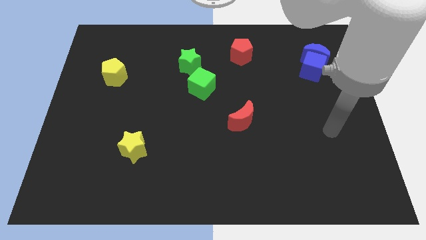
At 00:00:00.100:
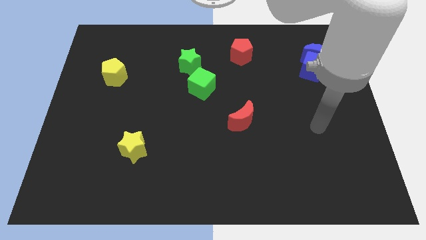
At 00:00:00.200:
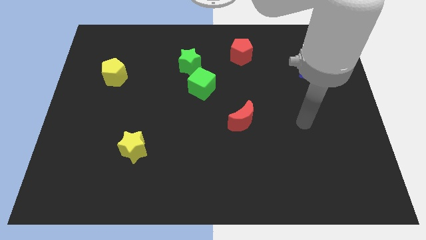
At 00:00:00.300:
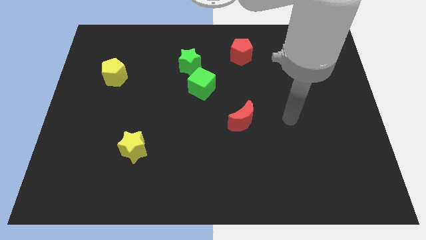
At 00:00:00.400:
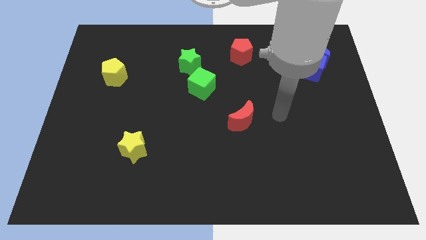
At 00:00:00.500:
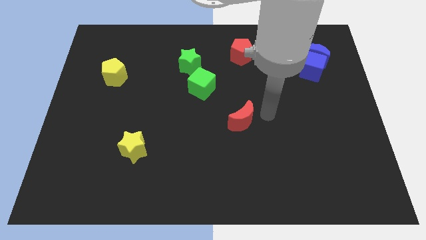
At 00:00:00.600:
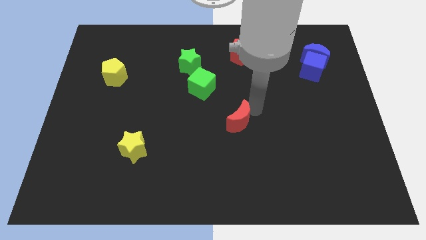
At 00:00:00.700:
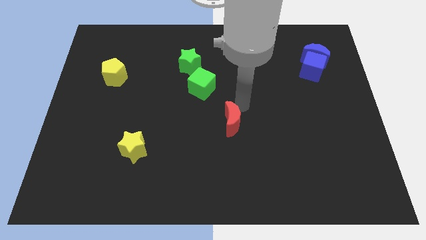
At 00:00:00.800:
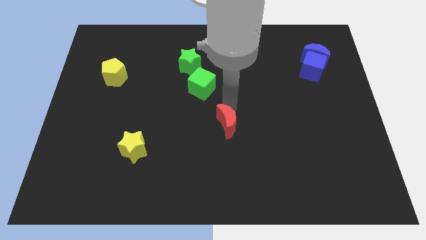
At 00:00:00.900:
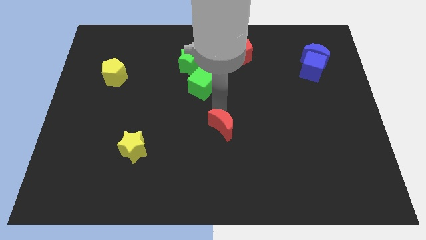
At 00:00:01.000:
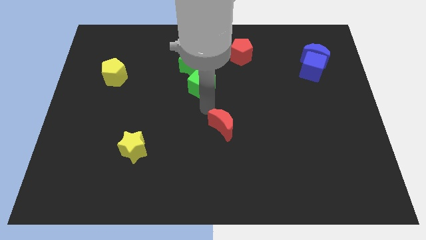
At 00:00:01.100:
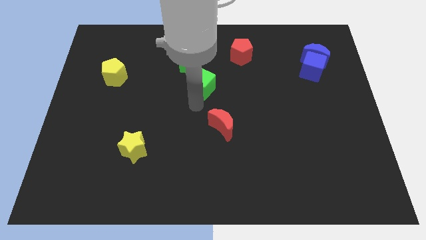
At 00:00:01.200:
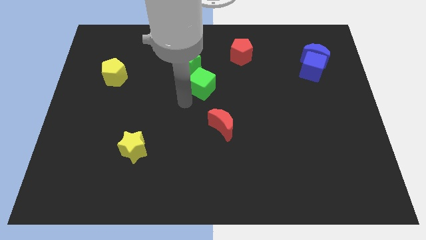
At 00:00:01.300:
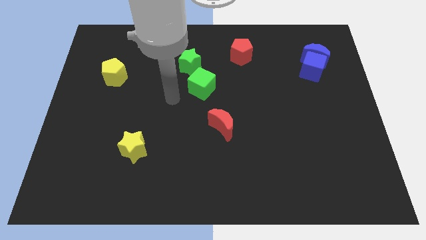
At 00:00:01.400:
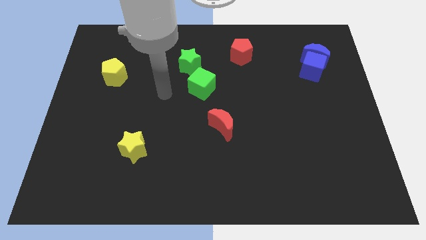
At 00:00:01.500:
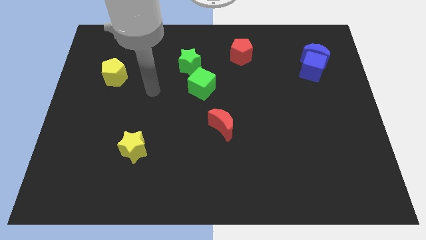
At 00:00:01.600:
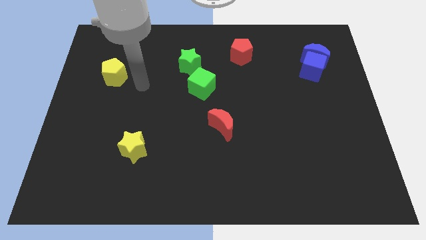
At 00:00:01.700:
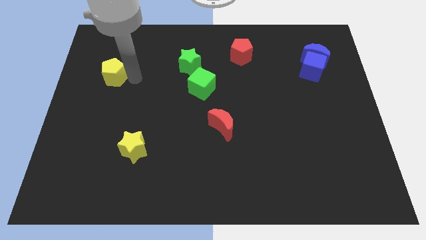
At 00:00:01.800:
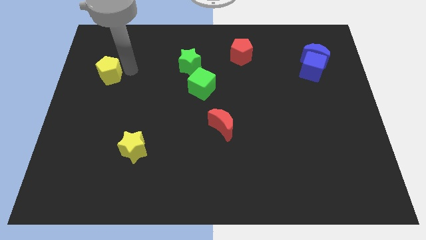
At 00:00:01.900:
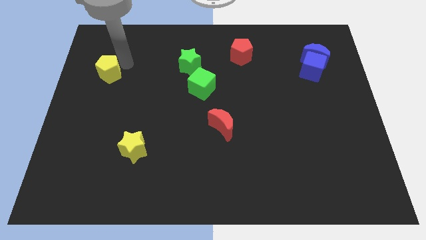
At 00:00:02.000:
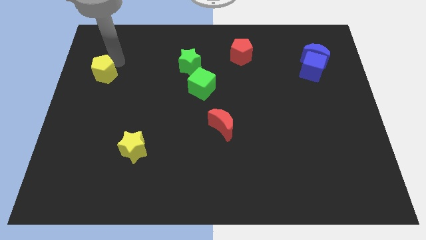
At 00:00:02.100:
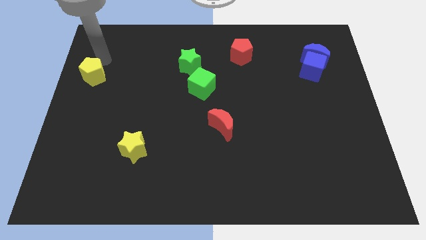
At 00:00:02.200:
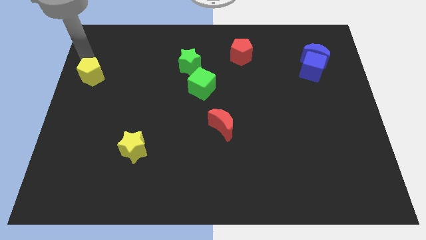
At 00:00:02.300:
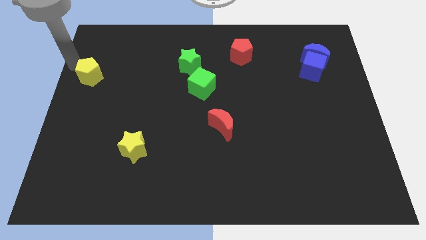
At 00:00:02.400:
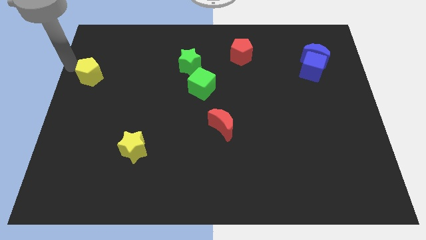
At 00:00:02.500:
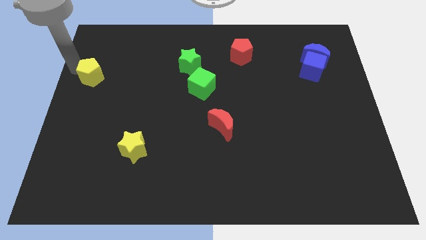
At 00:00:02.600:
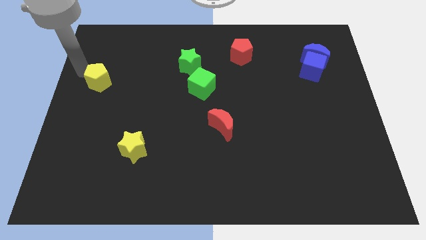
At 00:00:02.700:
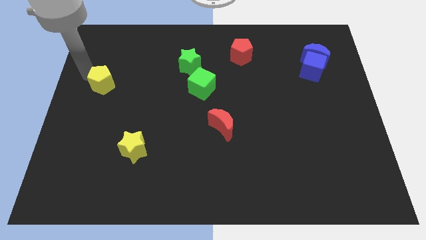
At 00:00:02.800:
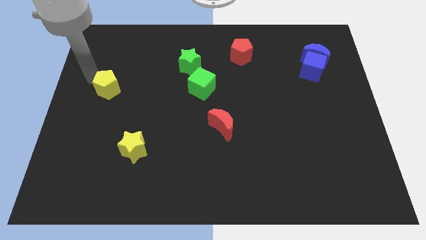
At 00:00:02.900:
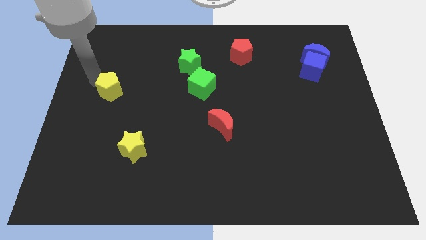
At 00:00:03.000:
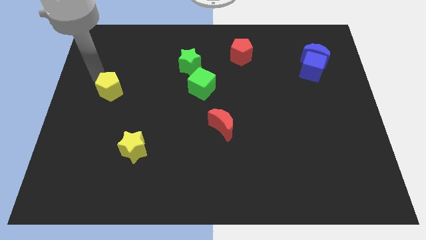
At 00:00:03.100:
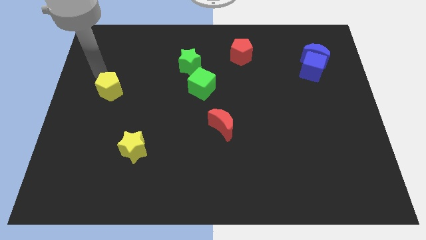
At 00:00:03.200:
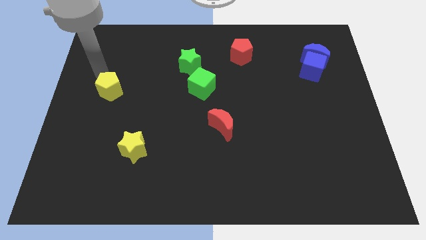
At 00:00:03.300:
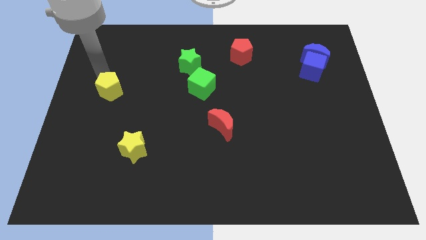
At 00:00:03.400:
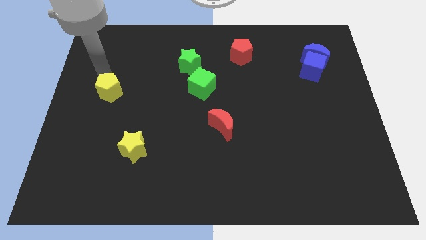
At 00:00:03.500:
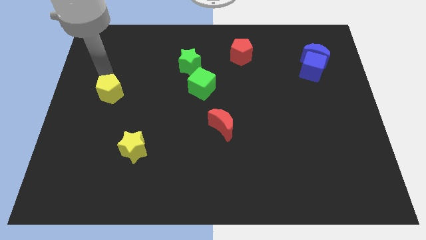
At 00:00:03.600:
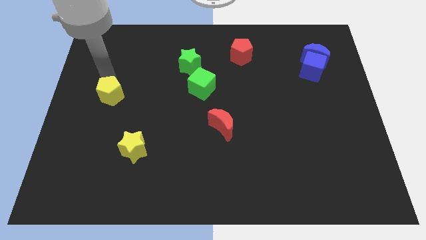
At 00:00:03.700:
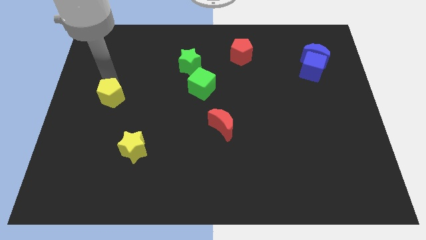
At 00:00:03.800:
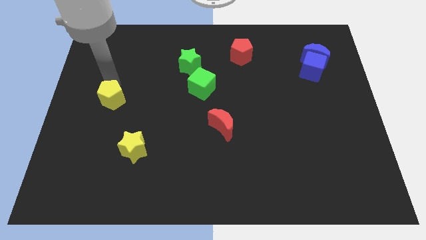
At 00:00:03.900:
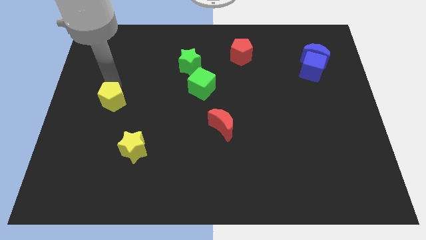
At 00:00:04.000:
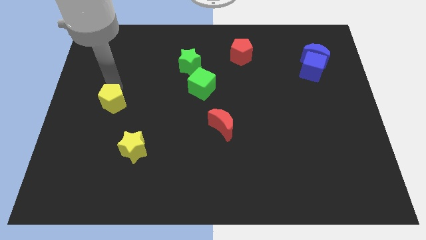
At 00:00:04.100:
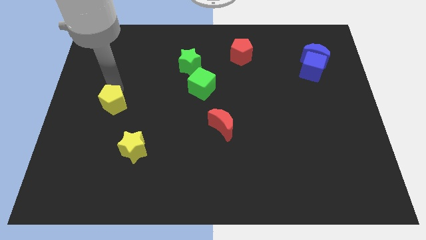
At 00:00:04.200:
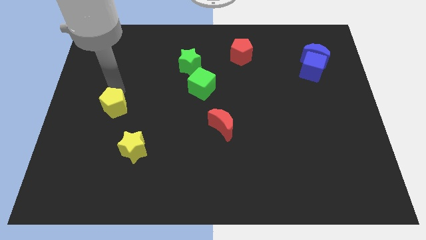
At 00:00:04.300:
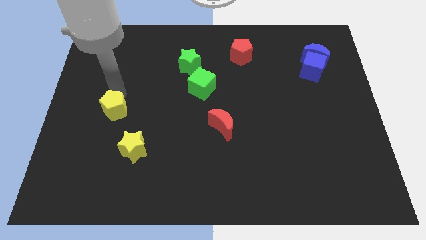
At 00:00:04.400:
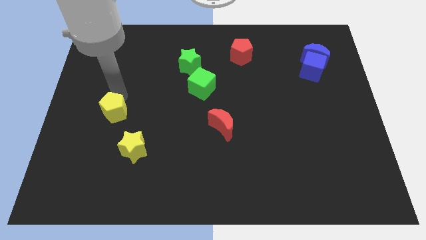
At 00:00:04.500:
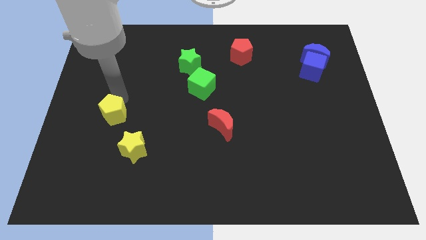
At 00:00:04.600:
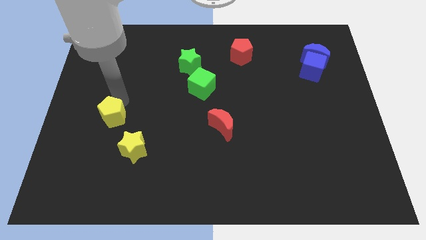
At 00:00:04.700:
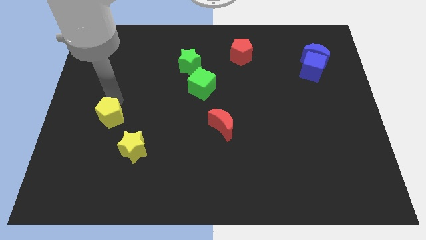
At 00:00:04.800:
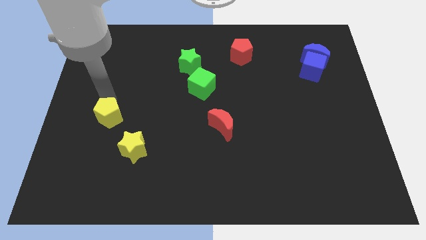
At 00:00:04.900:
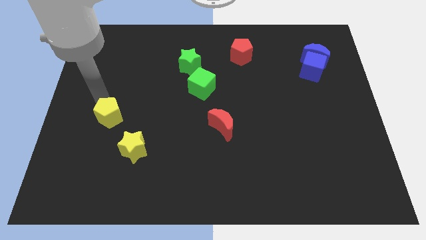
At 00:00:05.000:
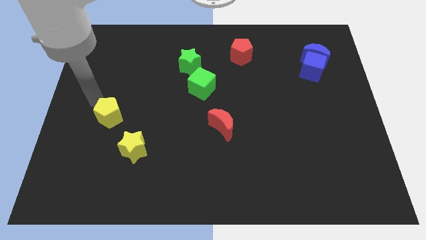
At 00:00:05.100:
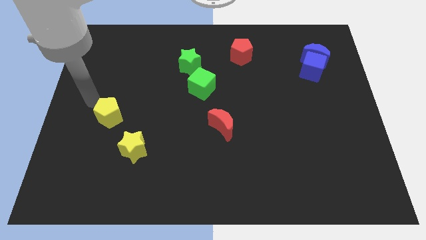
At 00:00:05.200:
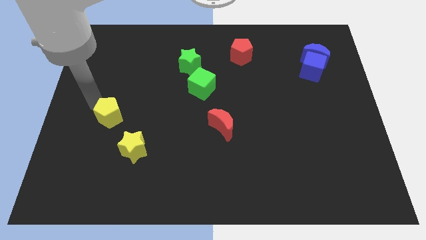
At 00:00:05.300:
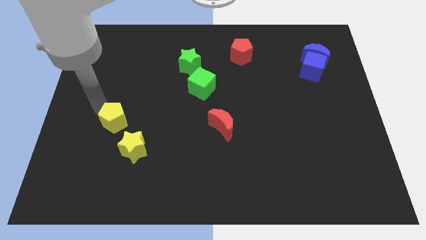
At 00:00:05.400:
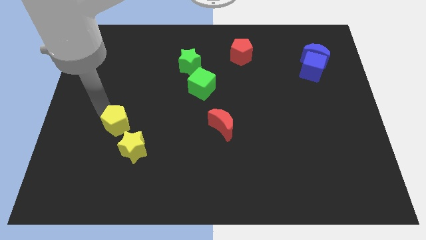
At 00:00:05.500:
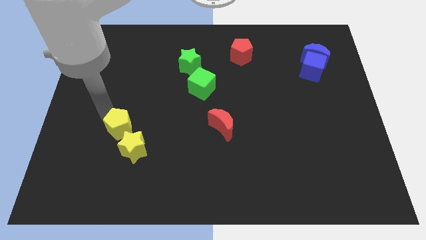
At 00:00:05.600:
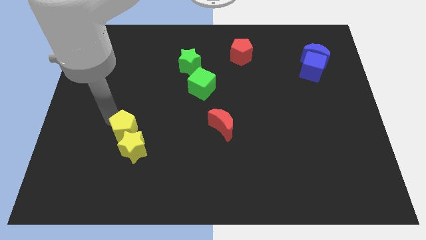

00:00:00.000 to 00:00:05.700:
push the yellow pentagon towards the yellow star

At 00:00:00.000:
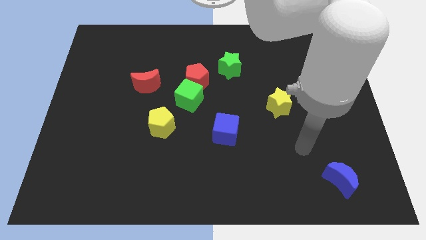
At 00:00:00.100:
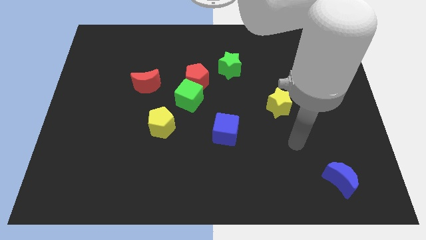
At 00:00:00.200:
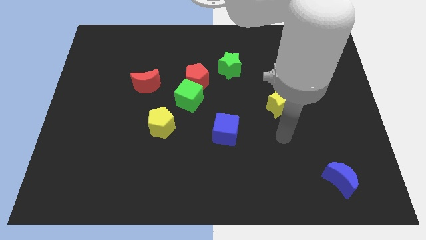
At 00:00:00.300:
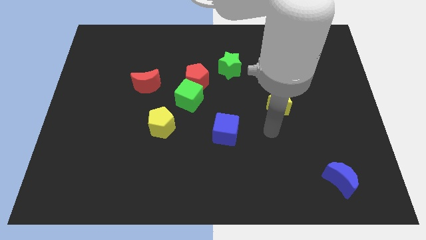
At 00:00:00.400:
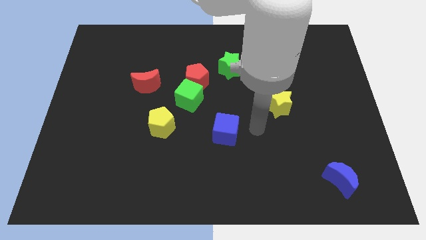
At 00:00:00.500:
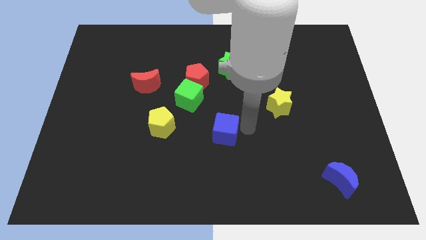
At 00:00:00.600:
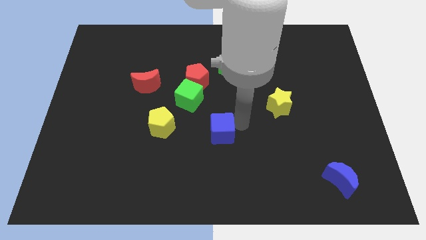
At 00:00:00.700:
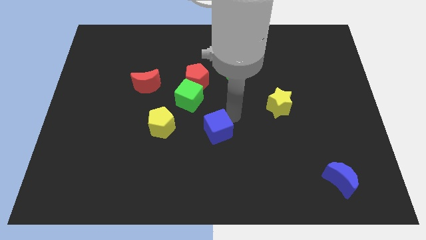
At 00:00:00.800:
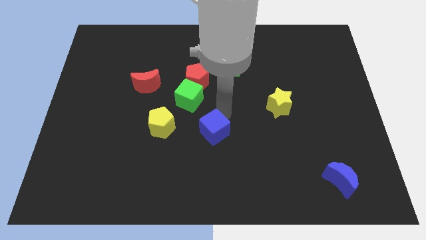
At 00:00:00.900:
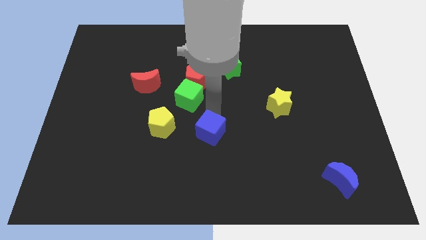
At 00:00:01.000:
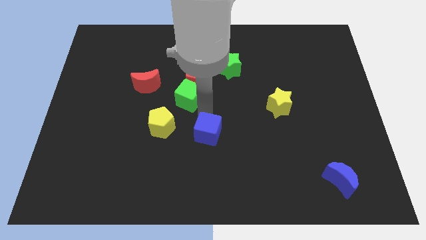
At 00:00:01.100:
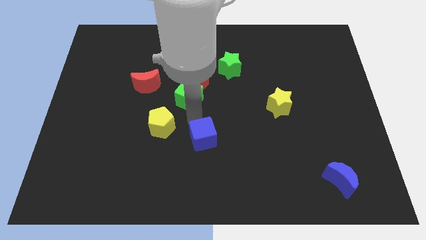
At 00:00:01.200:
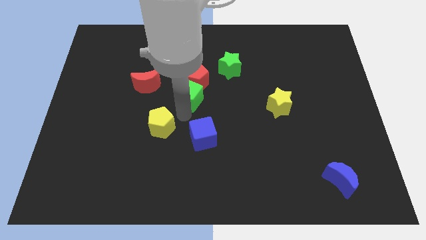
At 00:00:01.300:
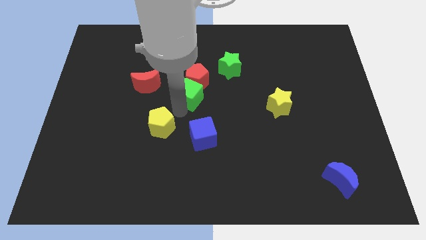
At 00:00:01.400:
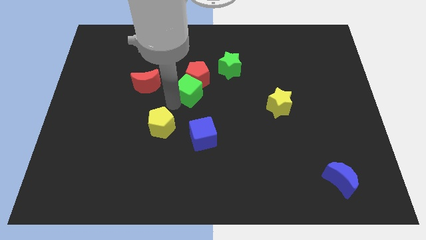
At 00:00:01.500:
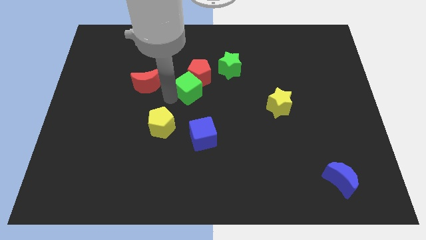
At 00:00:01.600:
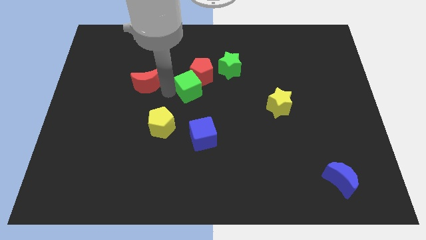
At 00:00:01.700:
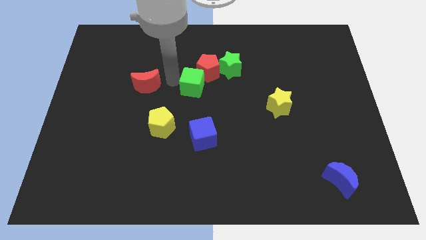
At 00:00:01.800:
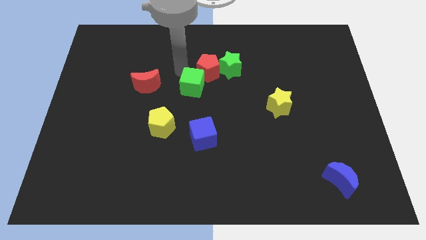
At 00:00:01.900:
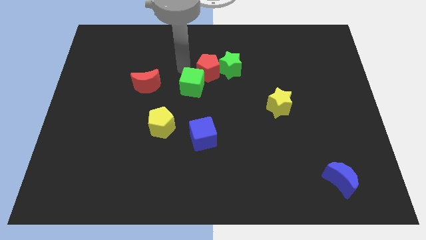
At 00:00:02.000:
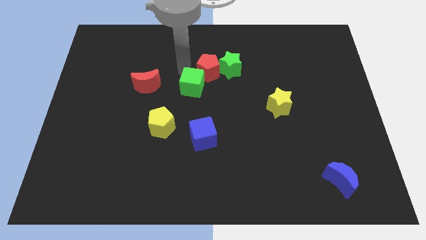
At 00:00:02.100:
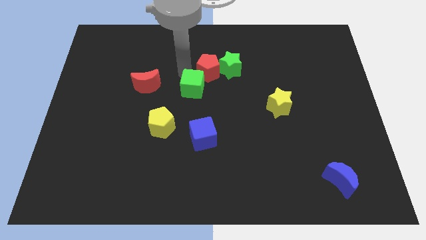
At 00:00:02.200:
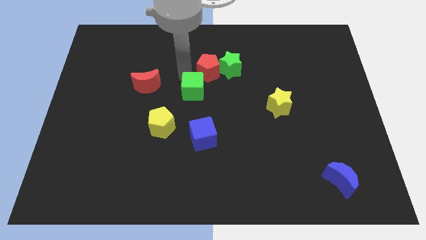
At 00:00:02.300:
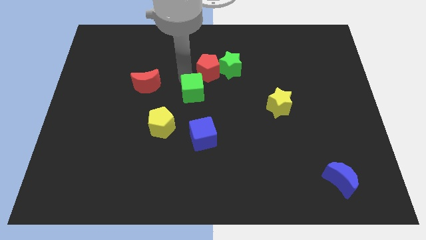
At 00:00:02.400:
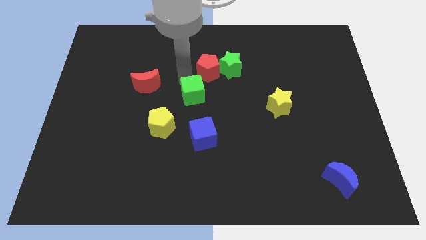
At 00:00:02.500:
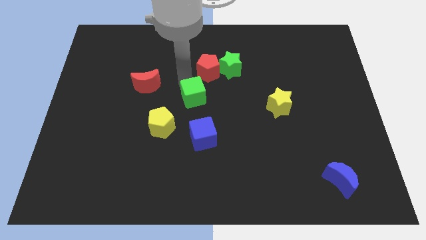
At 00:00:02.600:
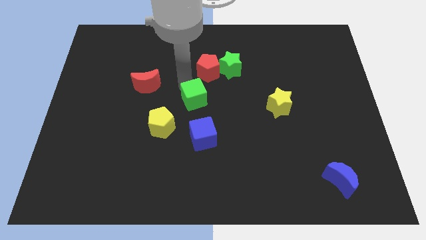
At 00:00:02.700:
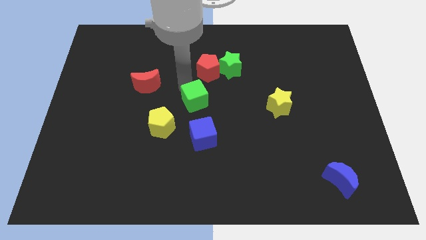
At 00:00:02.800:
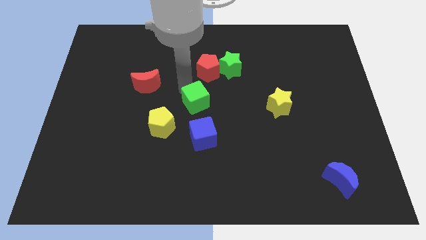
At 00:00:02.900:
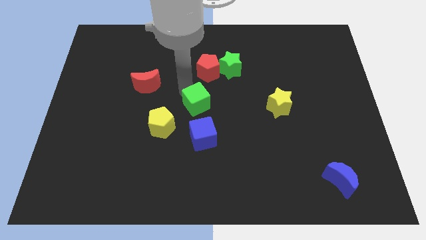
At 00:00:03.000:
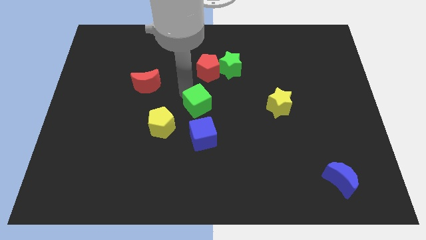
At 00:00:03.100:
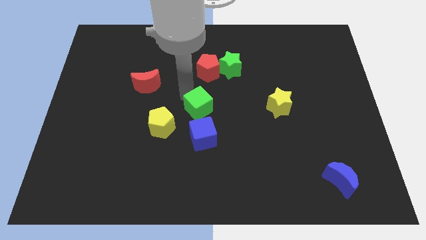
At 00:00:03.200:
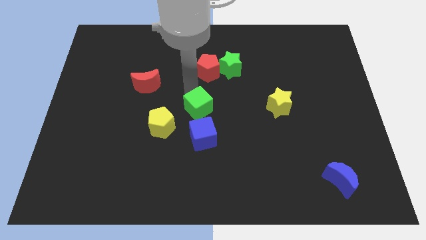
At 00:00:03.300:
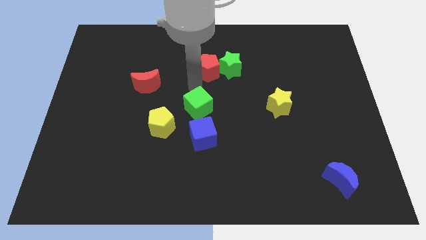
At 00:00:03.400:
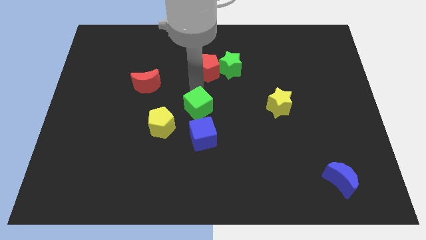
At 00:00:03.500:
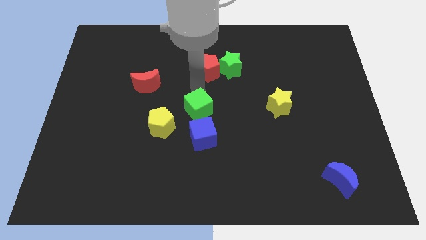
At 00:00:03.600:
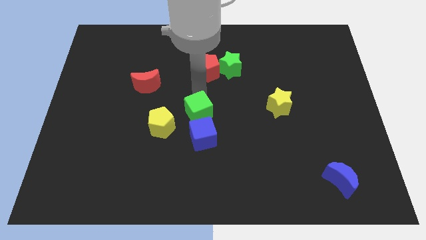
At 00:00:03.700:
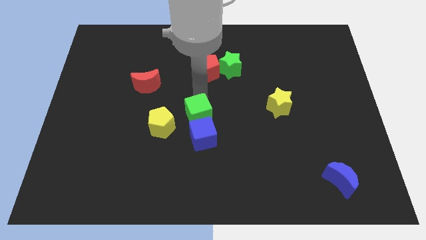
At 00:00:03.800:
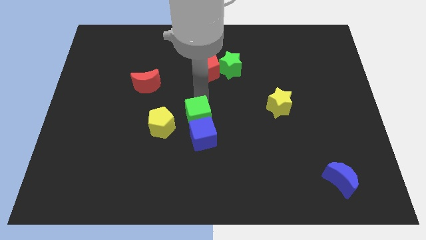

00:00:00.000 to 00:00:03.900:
put the green cube close to the blue cube
